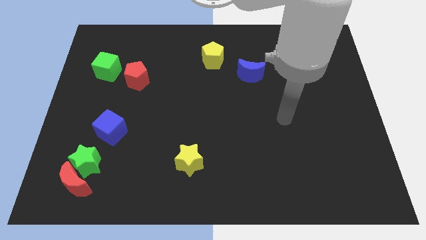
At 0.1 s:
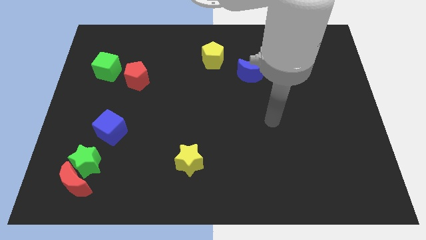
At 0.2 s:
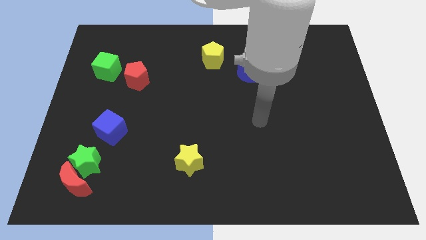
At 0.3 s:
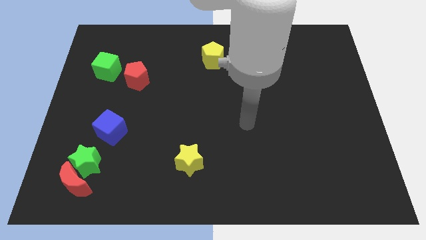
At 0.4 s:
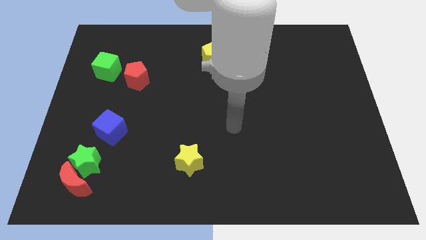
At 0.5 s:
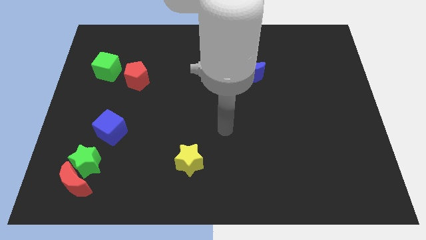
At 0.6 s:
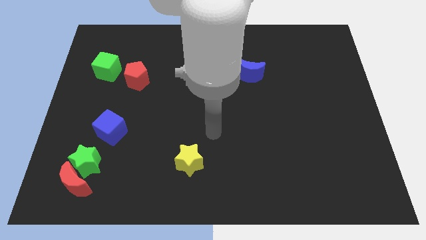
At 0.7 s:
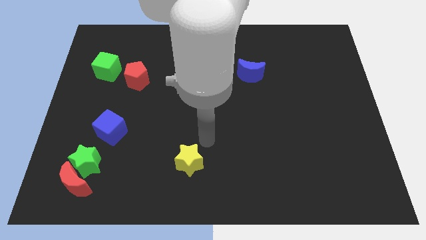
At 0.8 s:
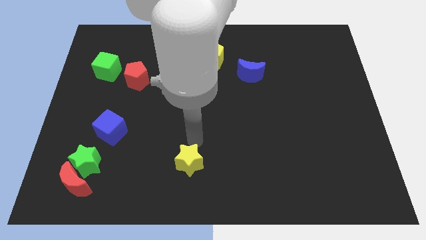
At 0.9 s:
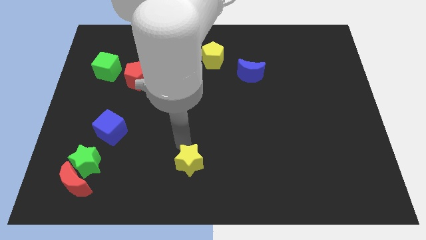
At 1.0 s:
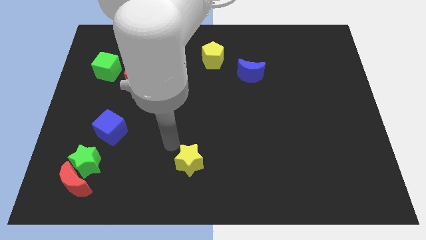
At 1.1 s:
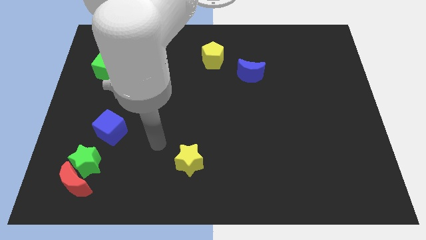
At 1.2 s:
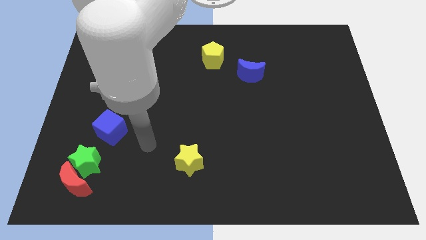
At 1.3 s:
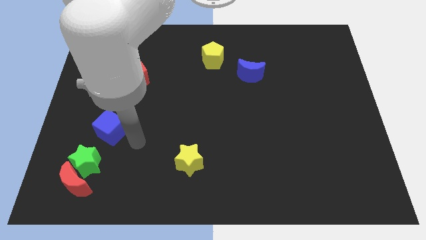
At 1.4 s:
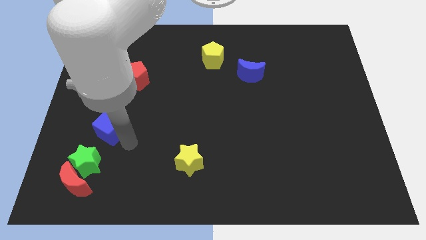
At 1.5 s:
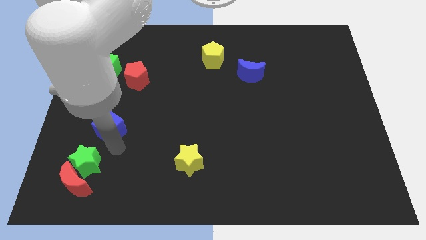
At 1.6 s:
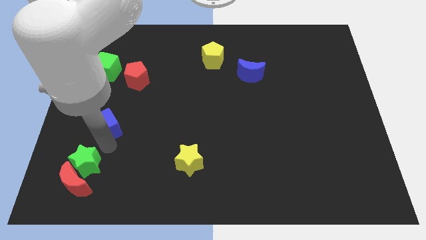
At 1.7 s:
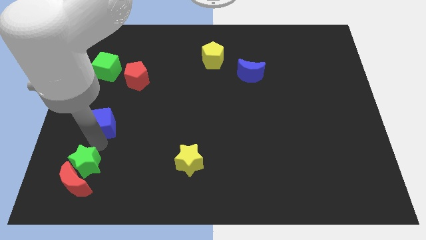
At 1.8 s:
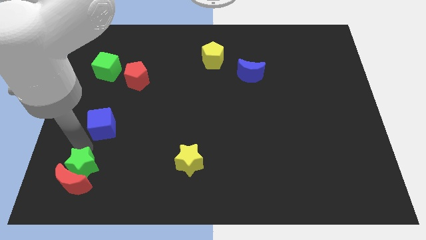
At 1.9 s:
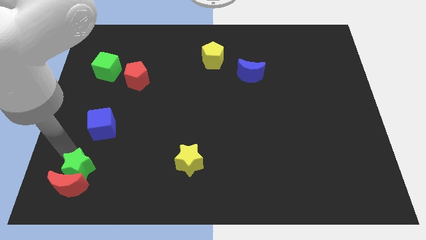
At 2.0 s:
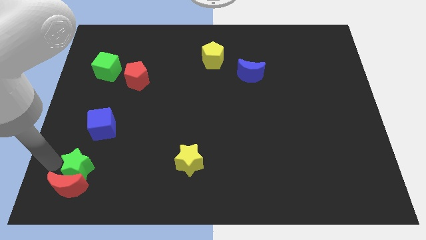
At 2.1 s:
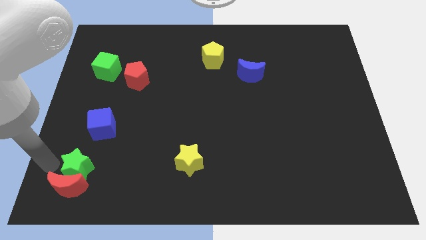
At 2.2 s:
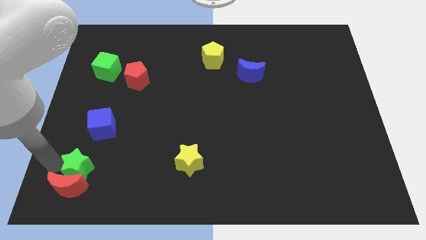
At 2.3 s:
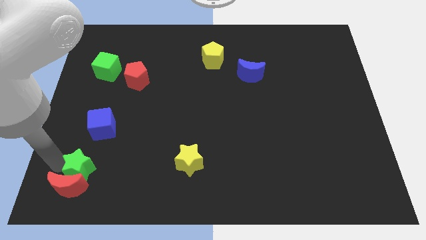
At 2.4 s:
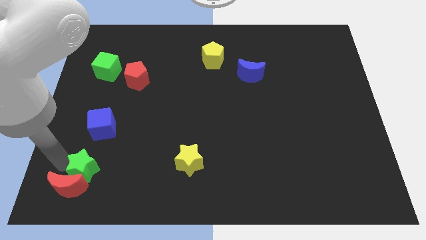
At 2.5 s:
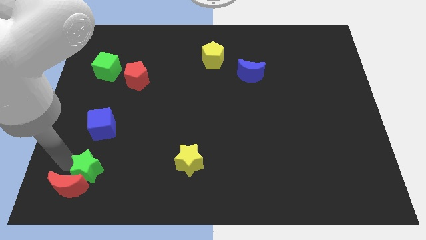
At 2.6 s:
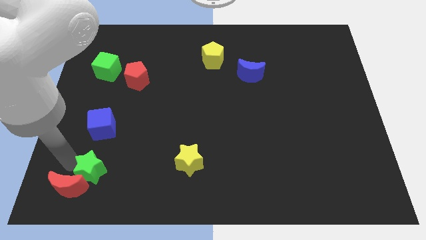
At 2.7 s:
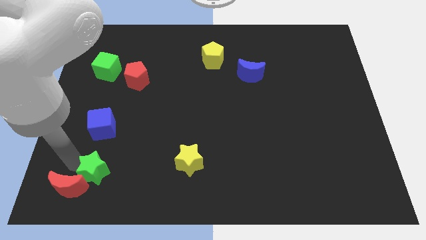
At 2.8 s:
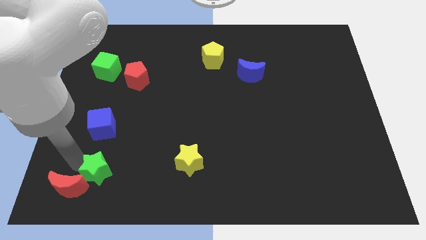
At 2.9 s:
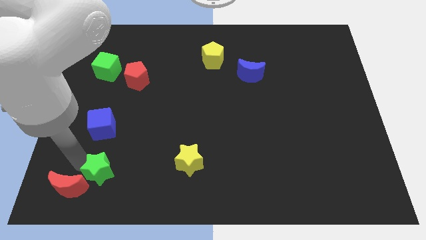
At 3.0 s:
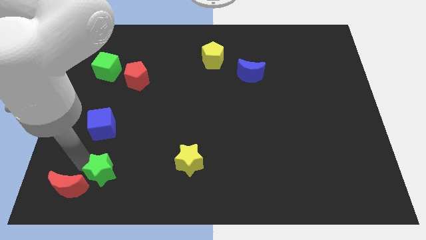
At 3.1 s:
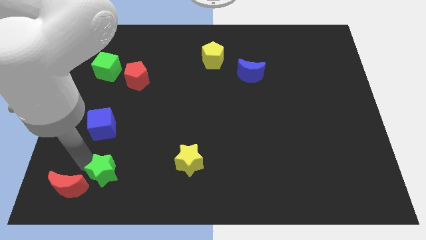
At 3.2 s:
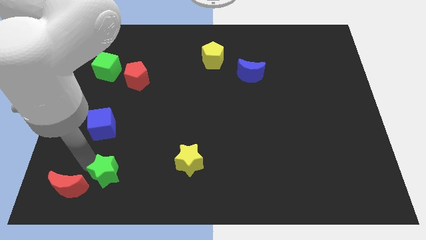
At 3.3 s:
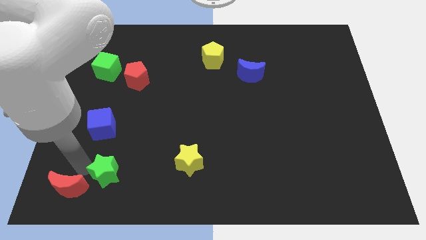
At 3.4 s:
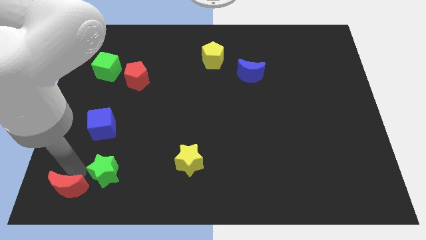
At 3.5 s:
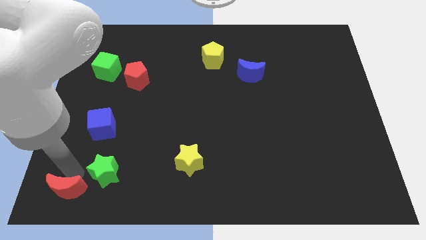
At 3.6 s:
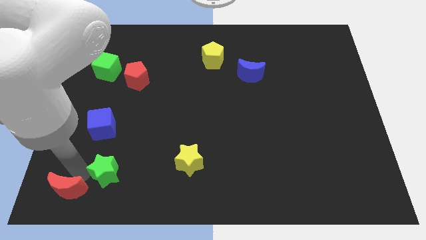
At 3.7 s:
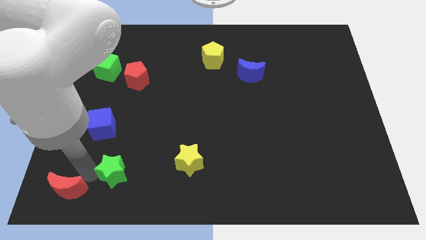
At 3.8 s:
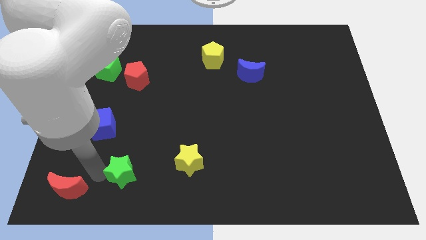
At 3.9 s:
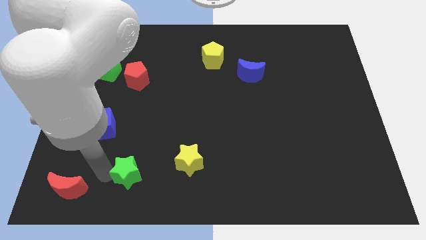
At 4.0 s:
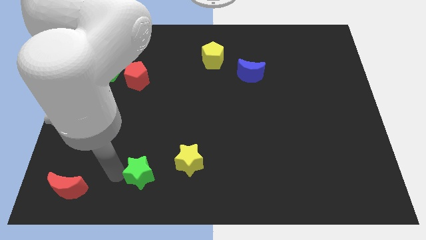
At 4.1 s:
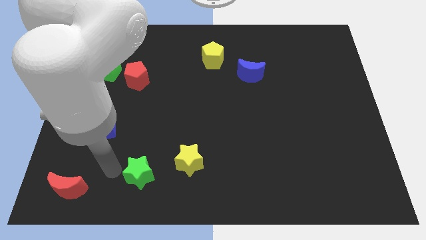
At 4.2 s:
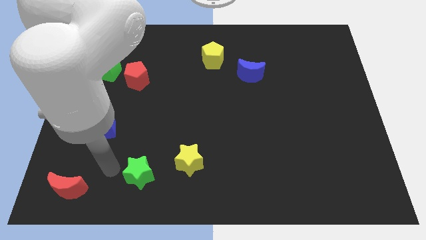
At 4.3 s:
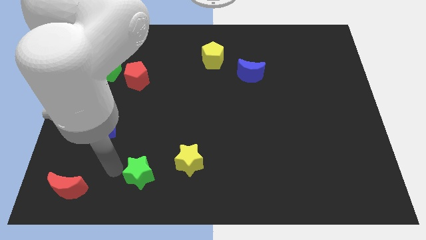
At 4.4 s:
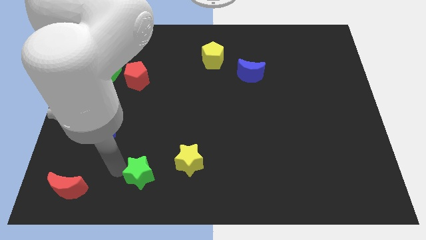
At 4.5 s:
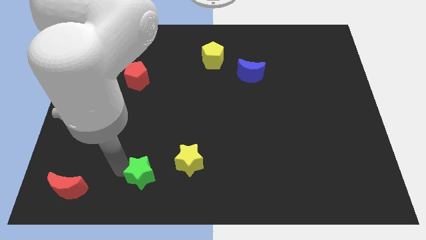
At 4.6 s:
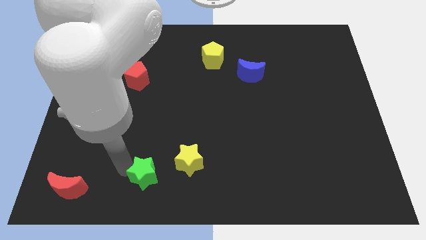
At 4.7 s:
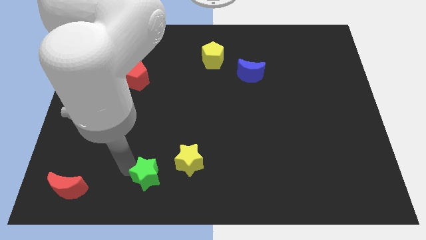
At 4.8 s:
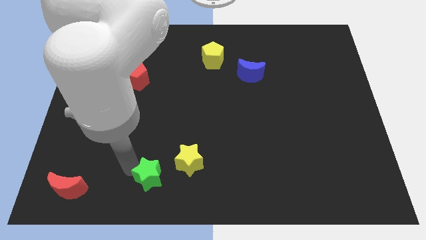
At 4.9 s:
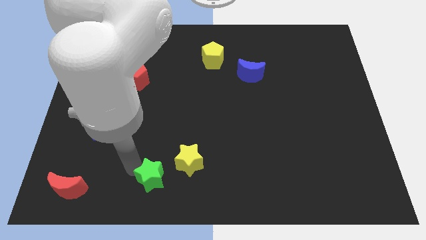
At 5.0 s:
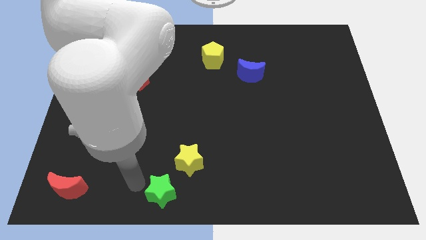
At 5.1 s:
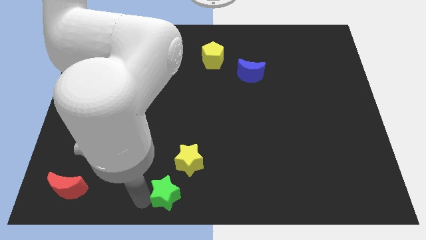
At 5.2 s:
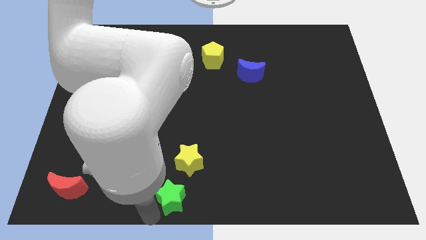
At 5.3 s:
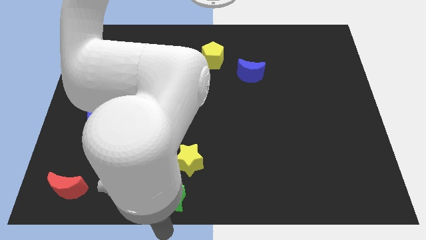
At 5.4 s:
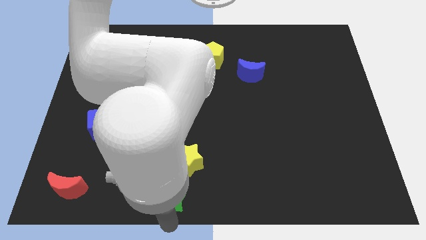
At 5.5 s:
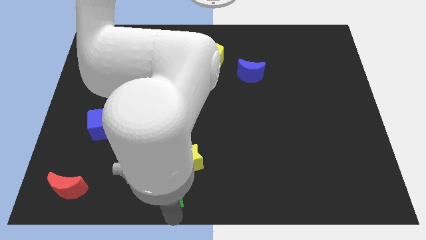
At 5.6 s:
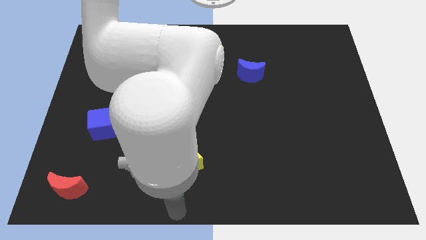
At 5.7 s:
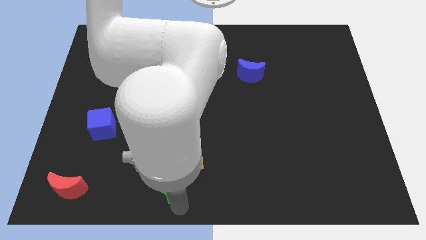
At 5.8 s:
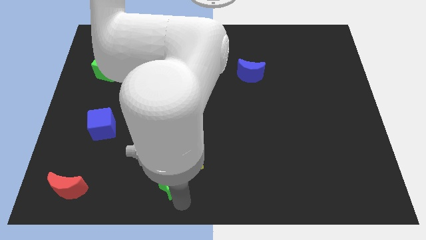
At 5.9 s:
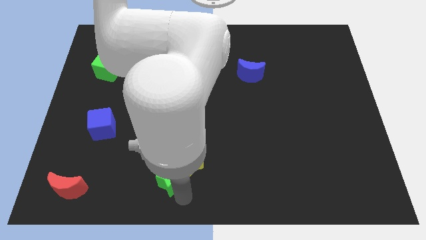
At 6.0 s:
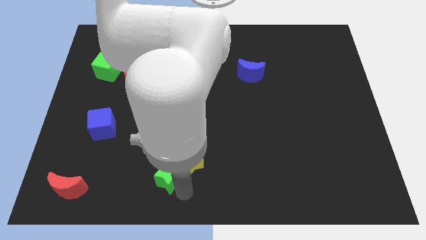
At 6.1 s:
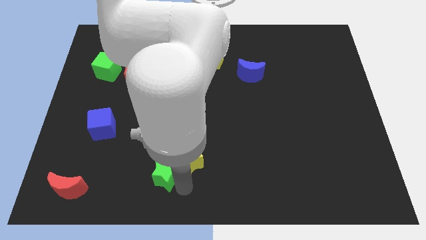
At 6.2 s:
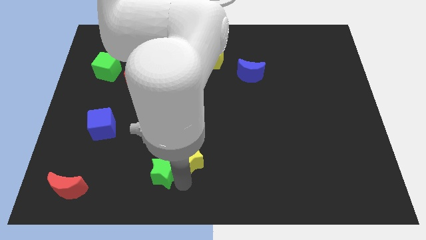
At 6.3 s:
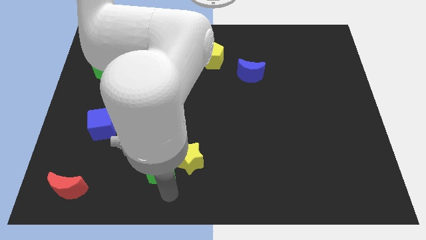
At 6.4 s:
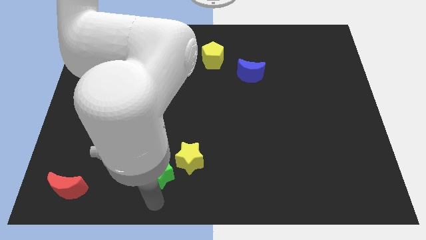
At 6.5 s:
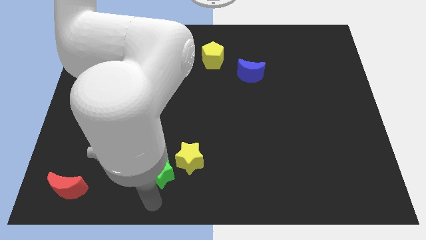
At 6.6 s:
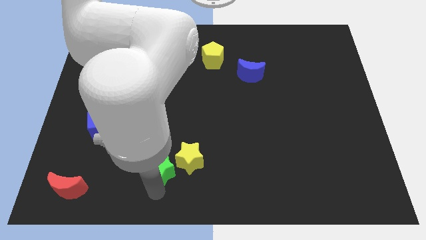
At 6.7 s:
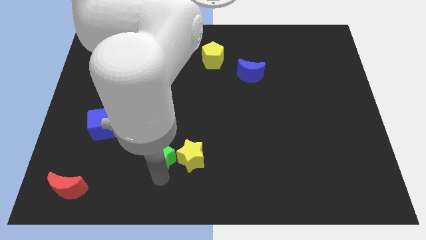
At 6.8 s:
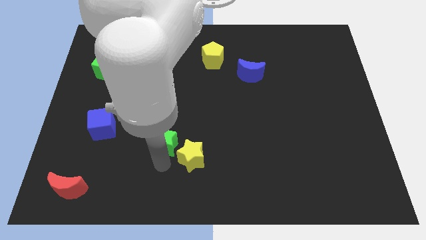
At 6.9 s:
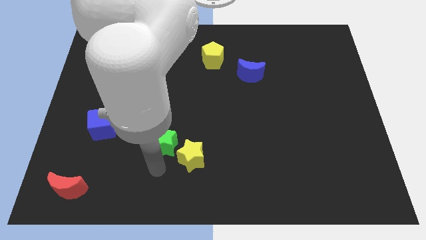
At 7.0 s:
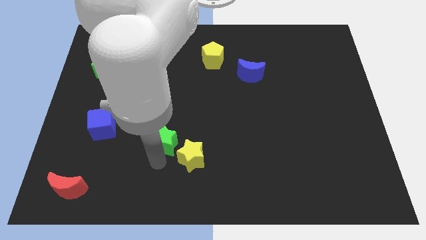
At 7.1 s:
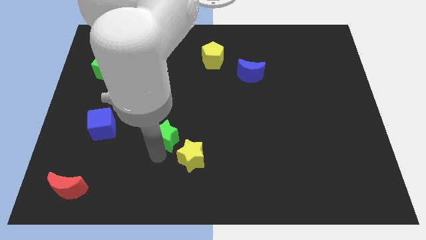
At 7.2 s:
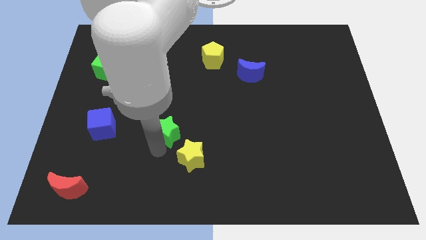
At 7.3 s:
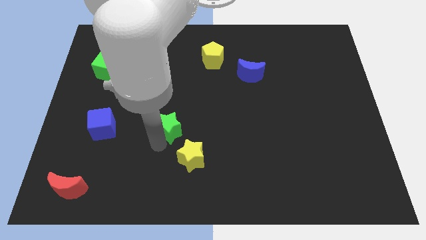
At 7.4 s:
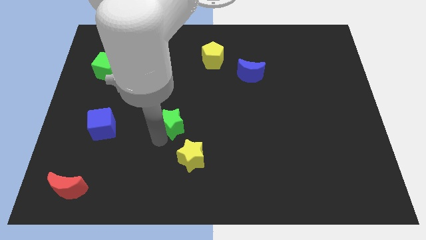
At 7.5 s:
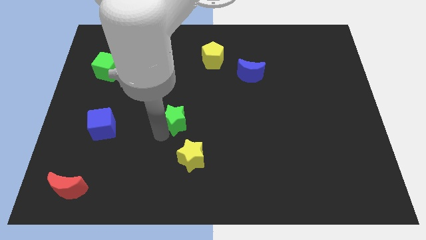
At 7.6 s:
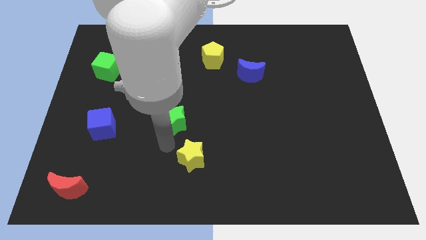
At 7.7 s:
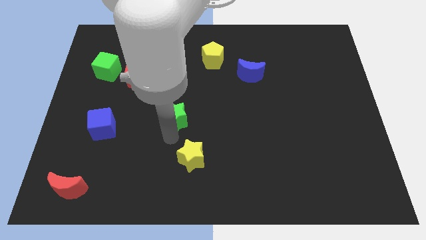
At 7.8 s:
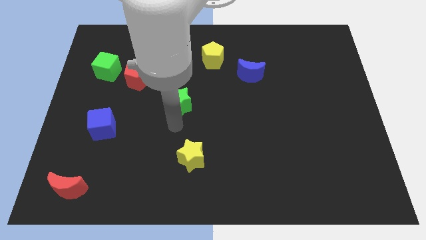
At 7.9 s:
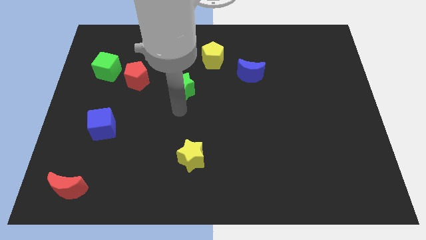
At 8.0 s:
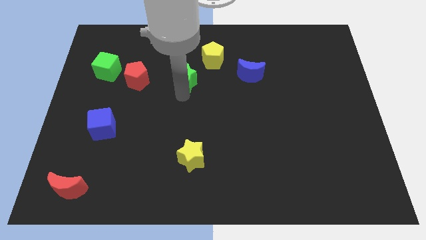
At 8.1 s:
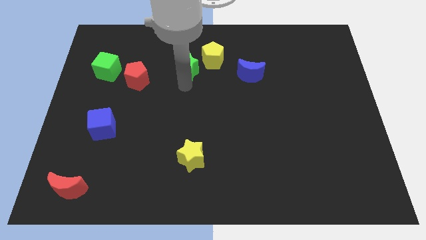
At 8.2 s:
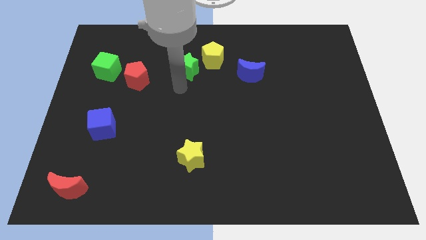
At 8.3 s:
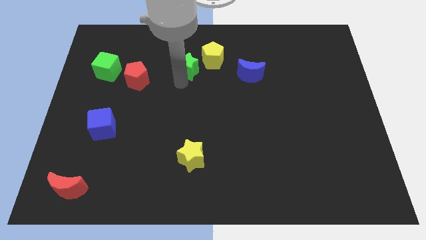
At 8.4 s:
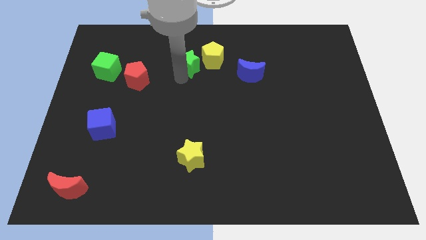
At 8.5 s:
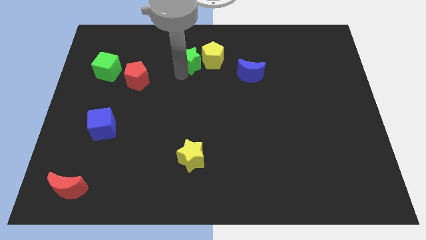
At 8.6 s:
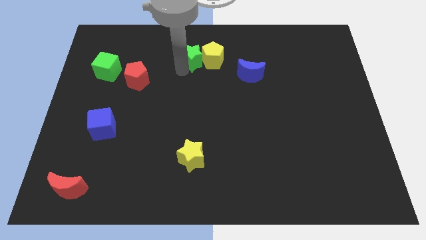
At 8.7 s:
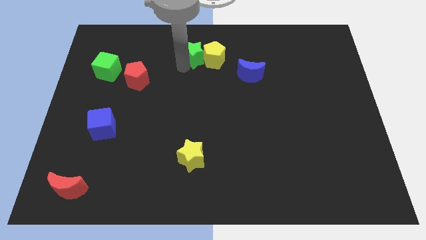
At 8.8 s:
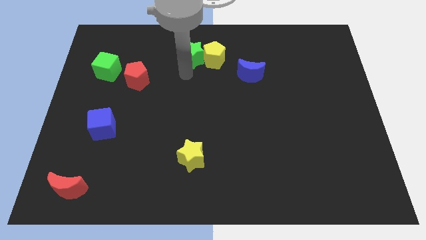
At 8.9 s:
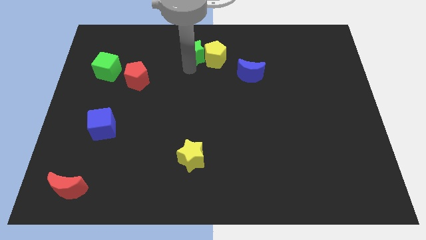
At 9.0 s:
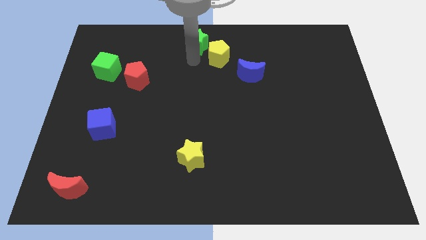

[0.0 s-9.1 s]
move the green star to the top side
